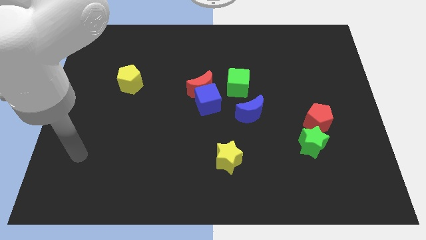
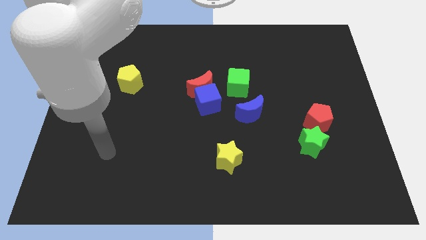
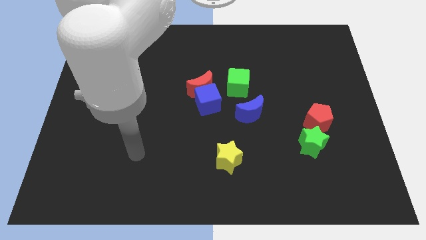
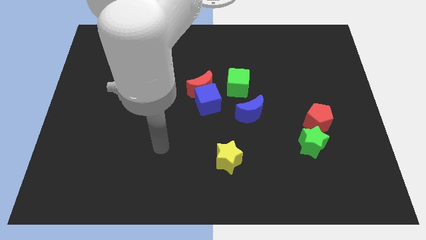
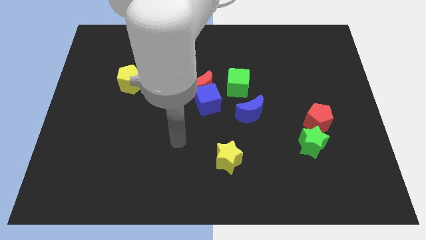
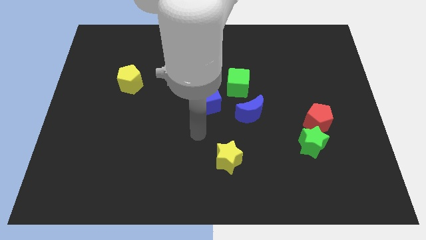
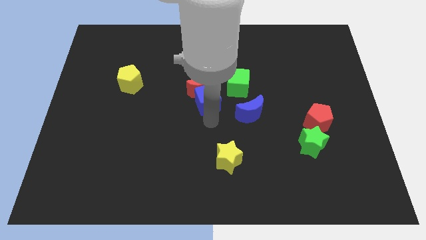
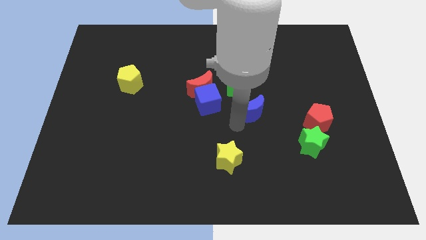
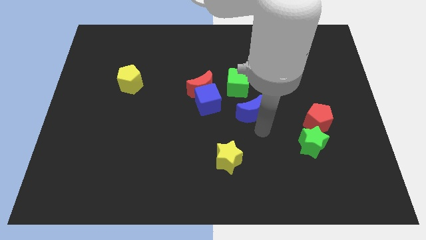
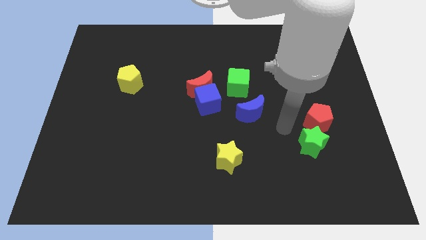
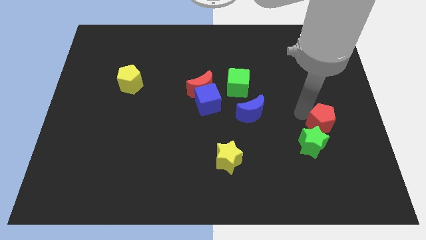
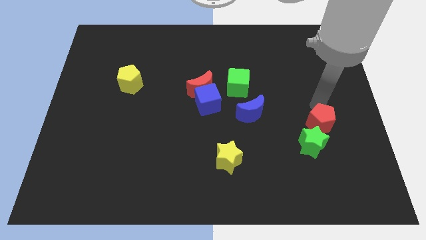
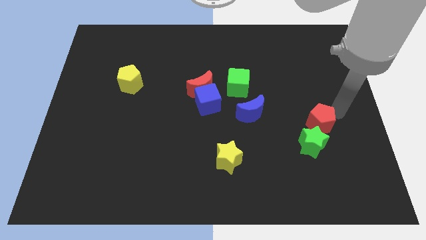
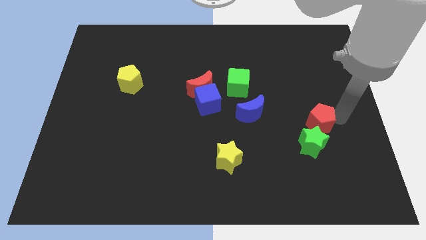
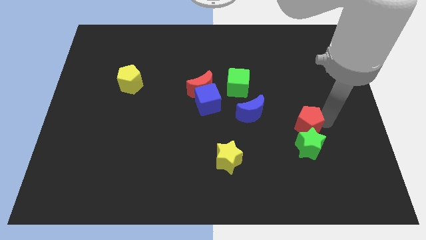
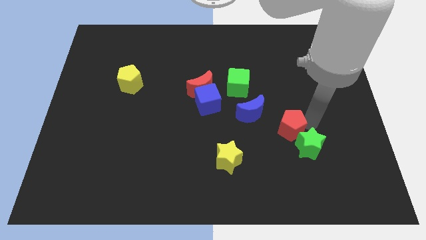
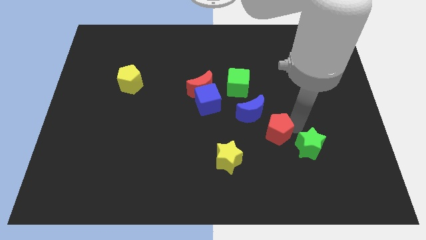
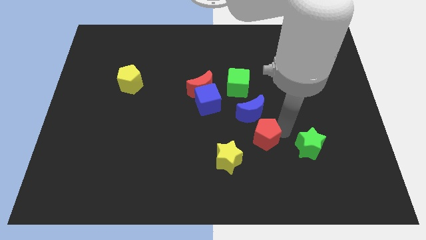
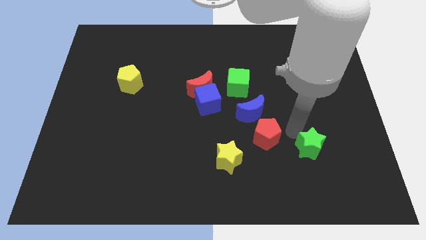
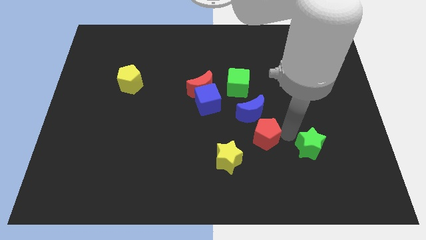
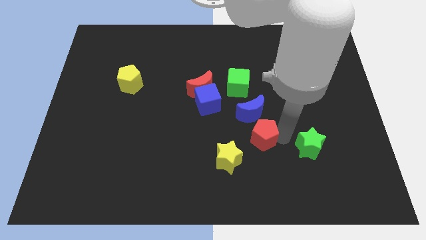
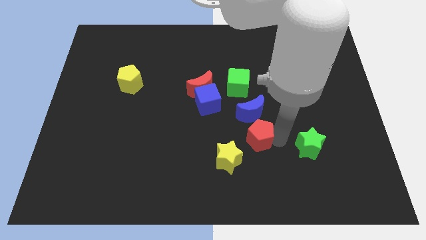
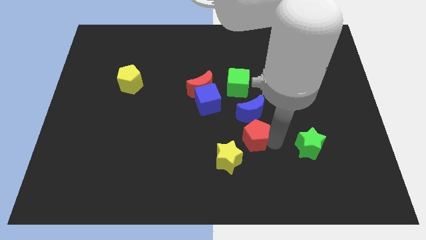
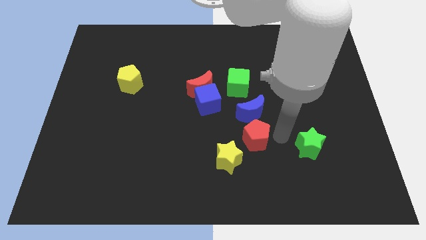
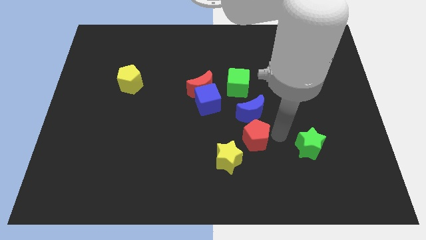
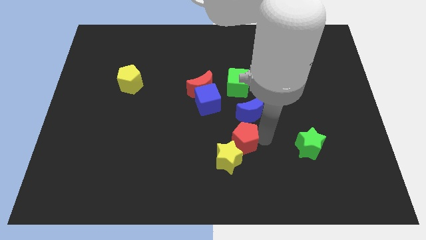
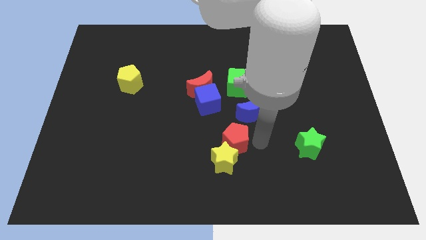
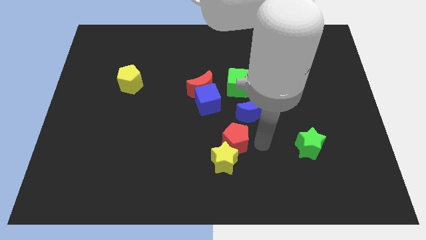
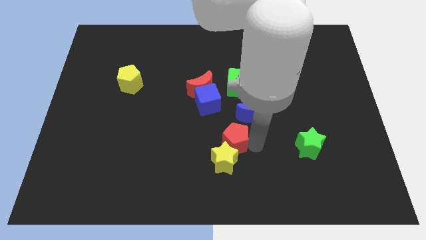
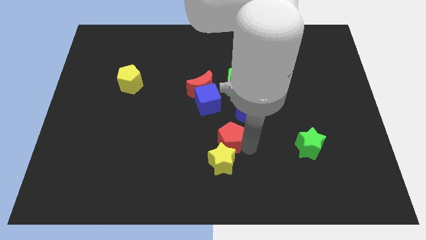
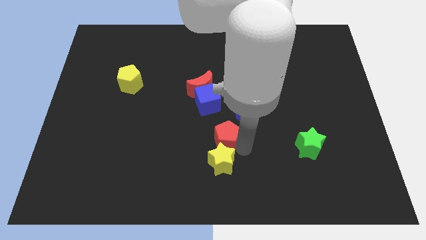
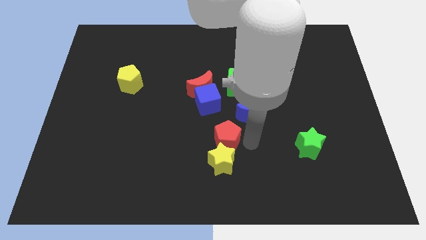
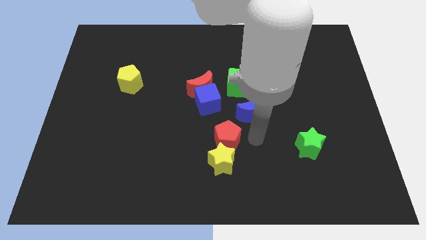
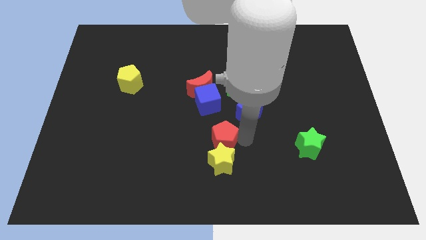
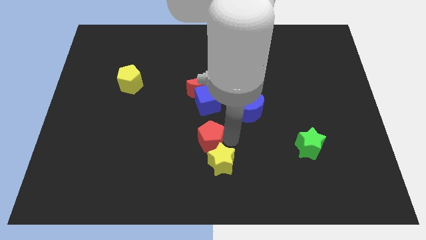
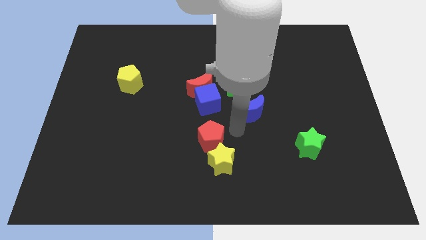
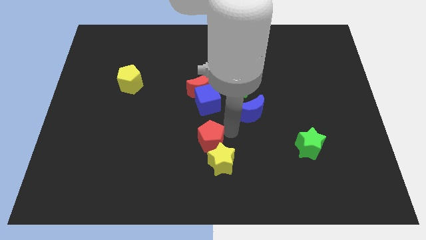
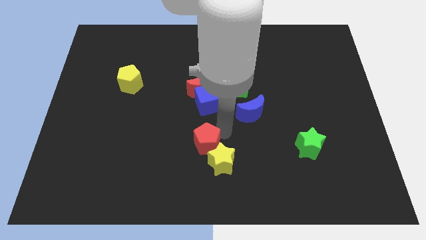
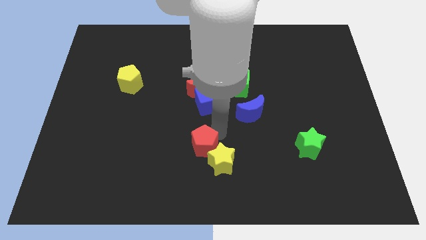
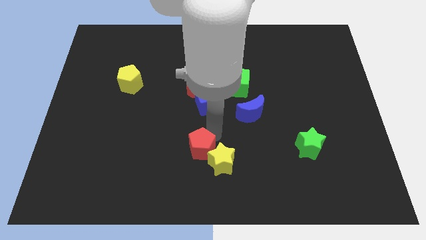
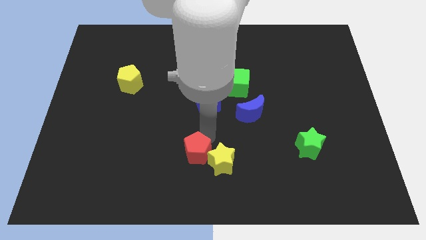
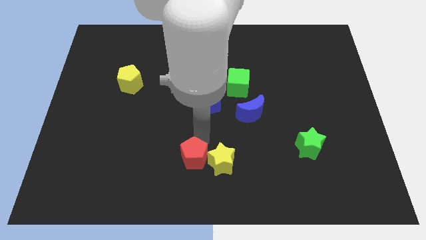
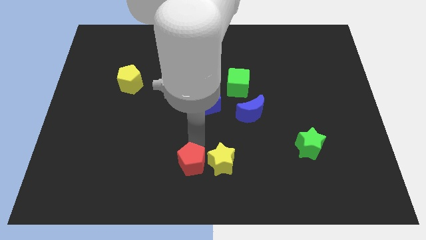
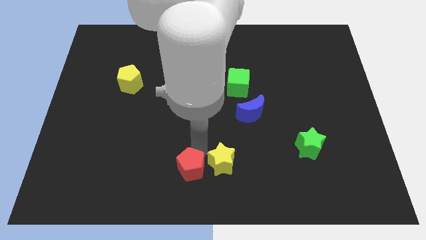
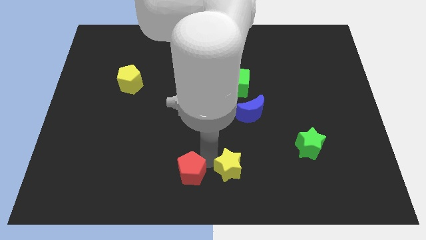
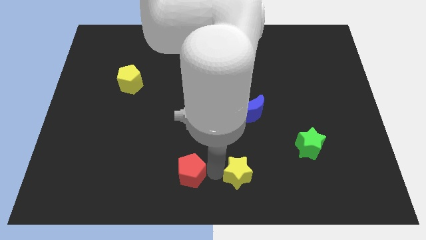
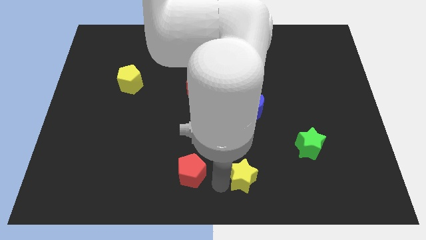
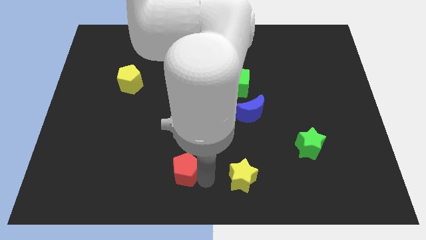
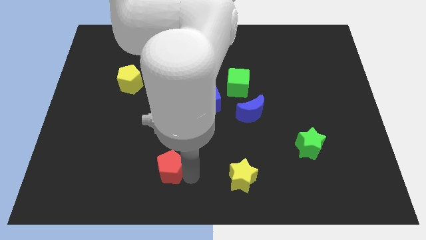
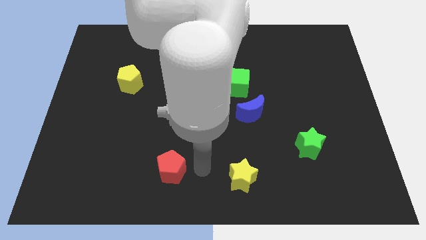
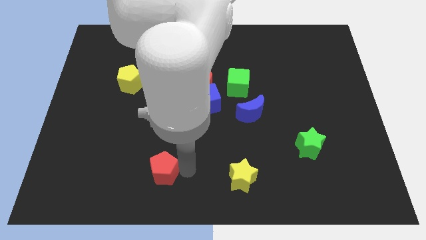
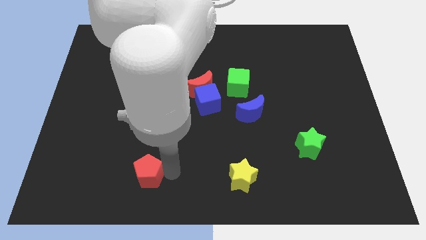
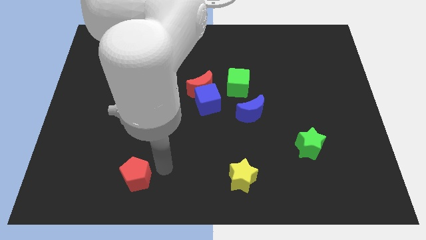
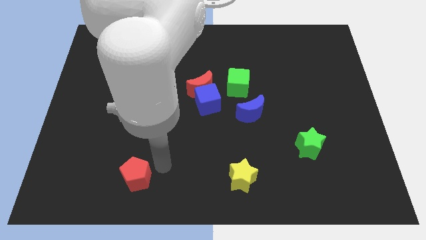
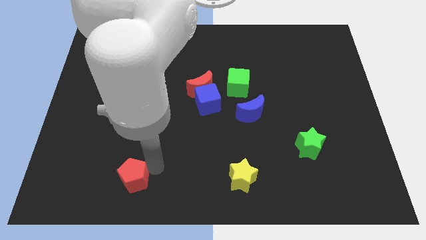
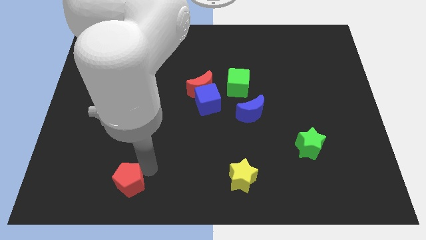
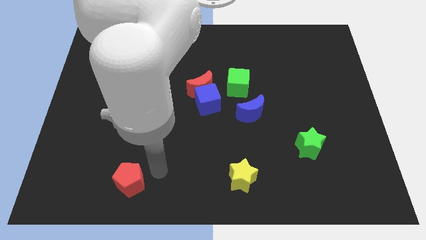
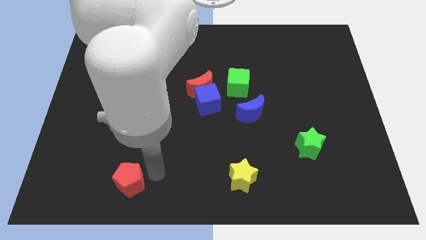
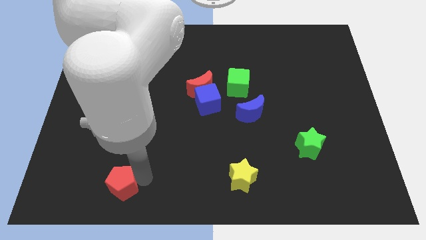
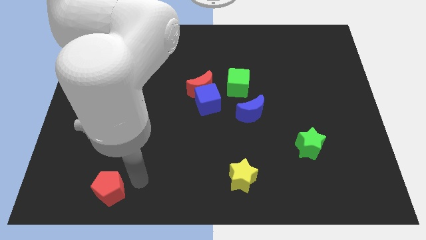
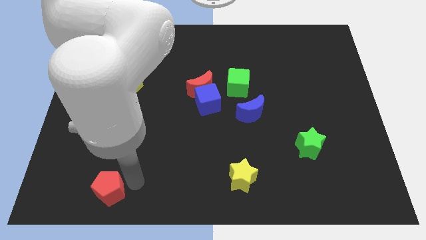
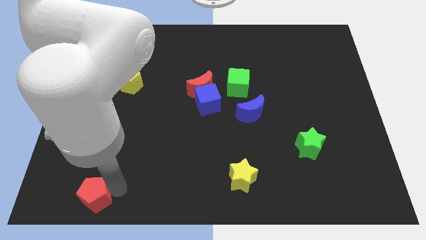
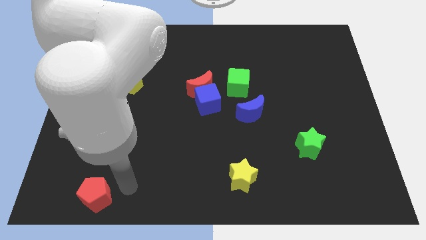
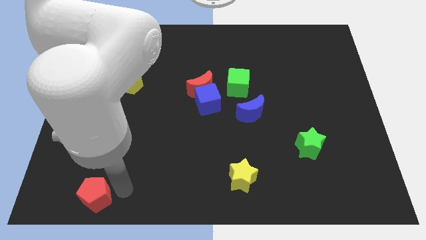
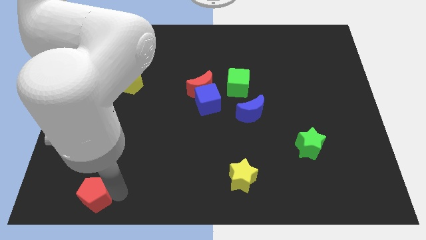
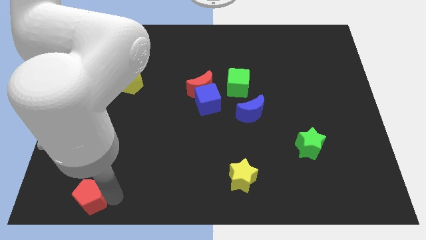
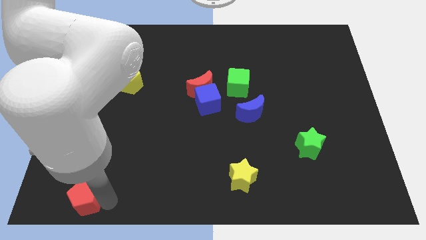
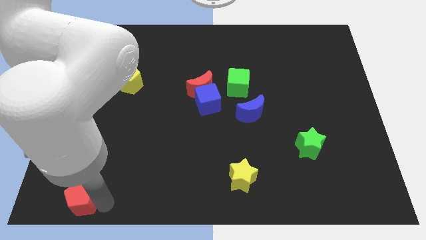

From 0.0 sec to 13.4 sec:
slide the red pentagon to the bottom left of the board

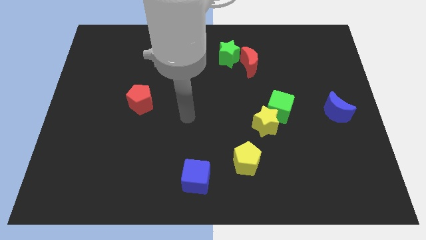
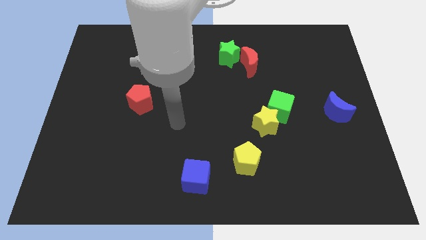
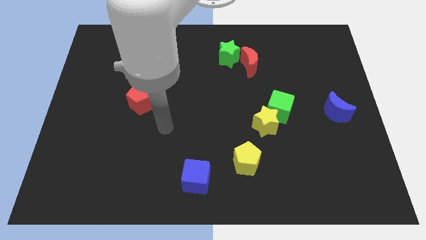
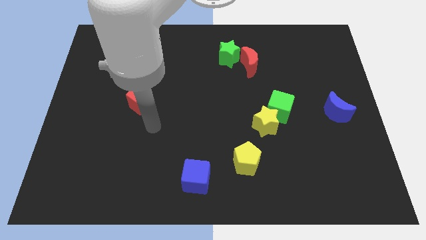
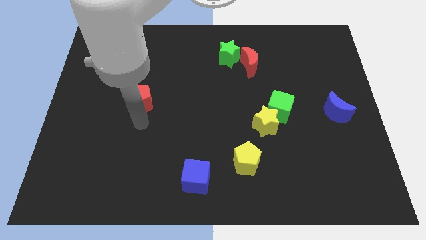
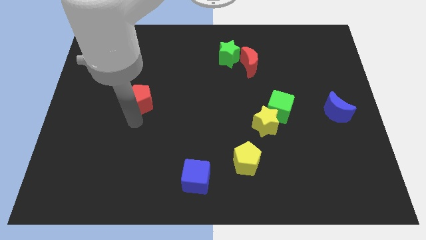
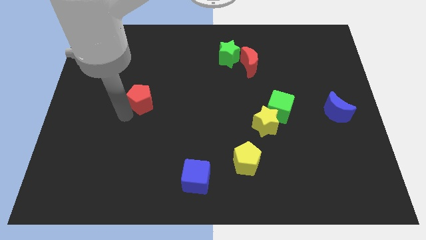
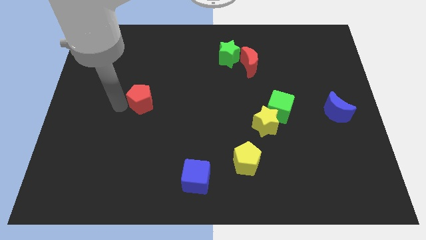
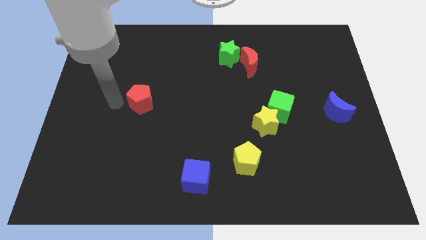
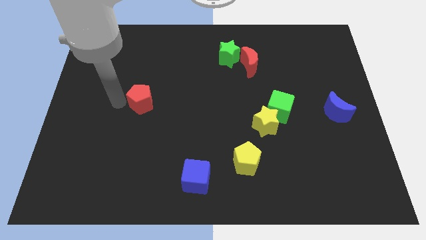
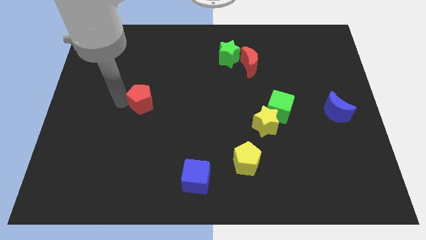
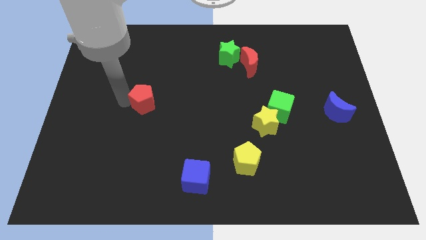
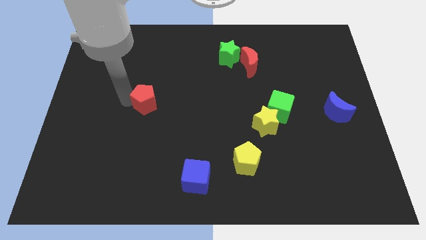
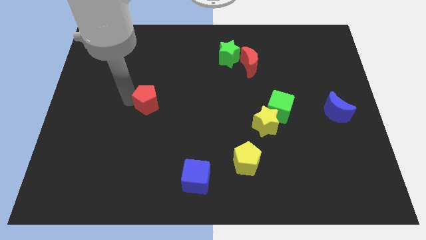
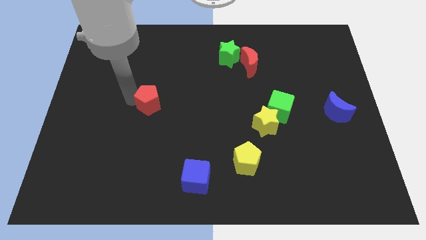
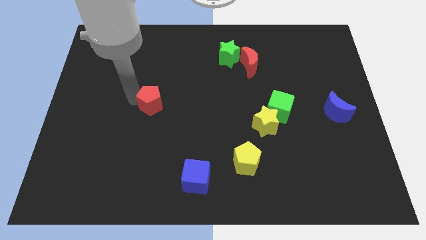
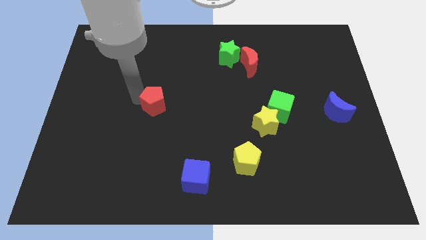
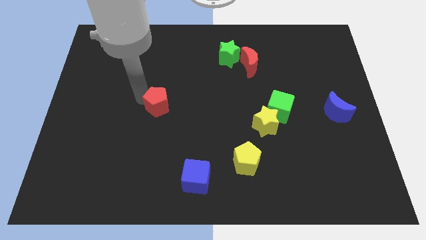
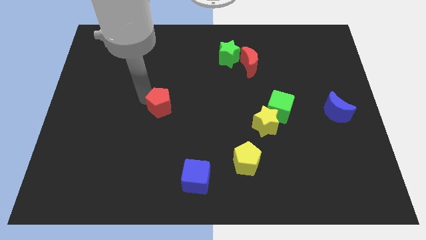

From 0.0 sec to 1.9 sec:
push the red pentagon to the center of the board
